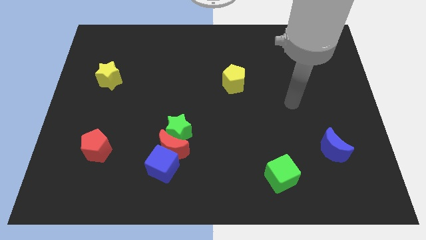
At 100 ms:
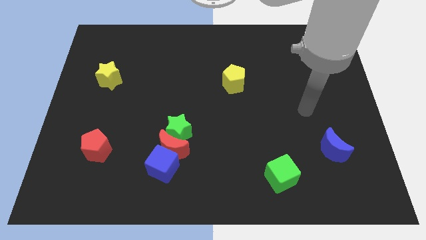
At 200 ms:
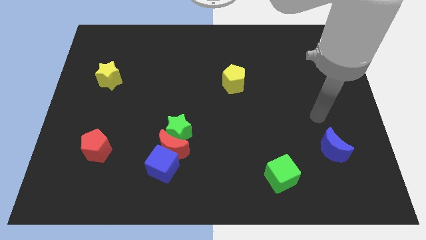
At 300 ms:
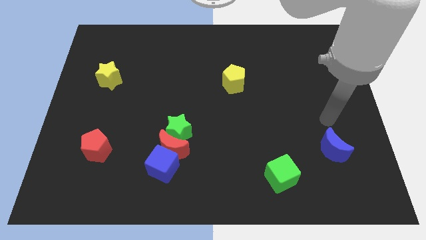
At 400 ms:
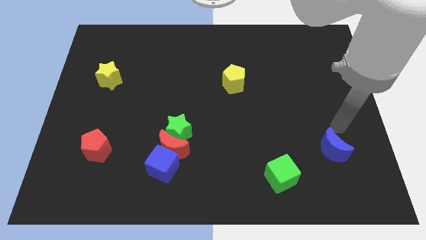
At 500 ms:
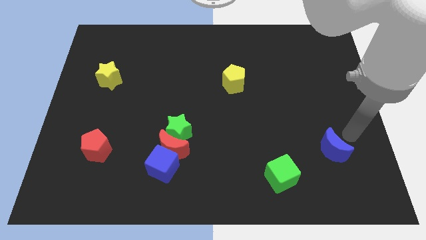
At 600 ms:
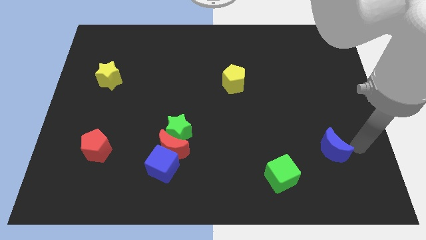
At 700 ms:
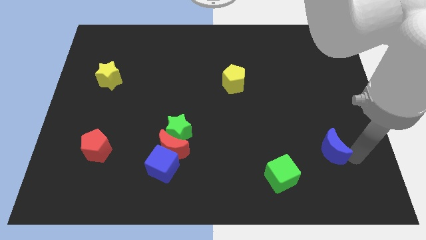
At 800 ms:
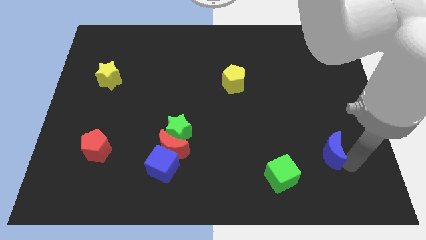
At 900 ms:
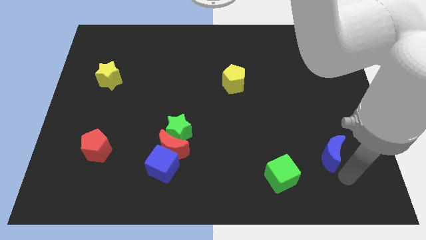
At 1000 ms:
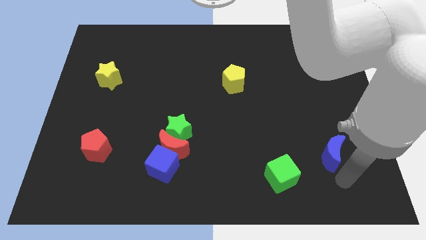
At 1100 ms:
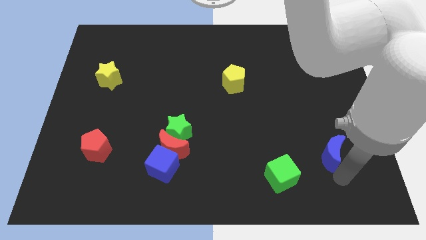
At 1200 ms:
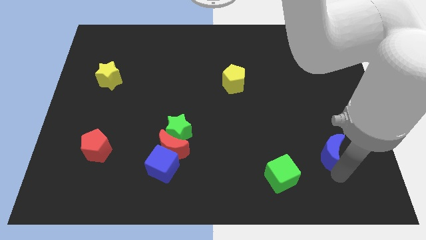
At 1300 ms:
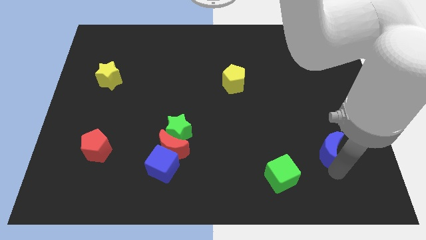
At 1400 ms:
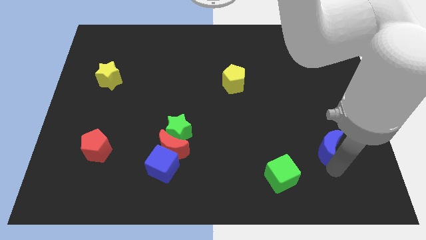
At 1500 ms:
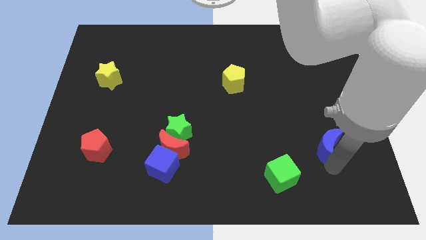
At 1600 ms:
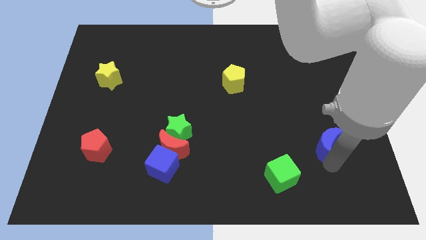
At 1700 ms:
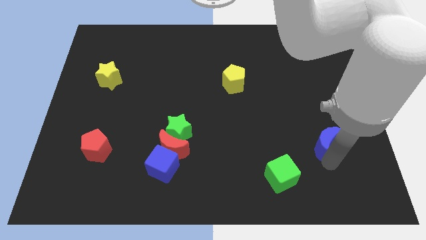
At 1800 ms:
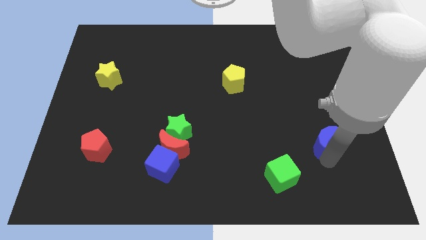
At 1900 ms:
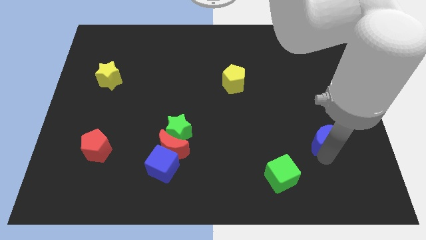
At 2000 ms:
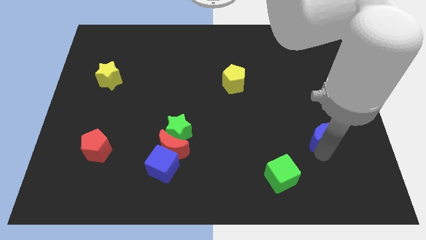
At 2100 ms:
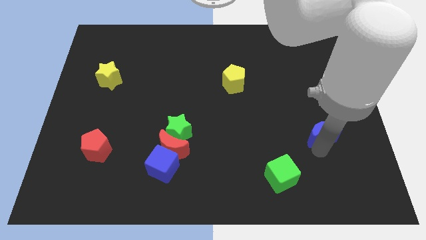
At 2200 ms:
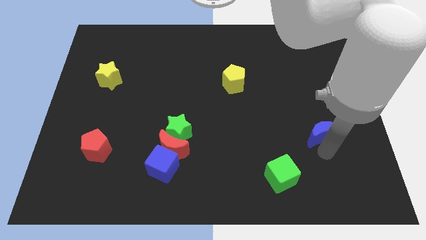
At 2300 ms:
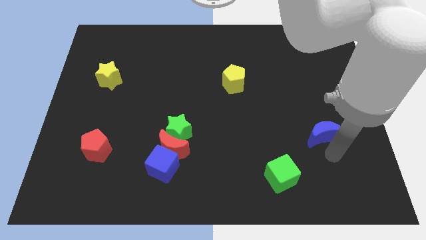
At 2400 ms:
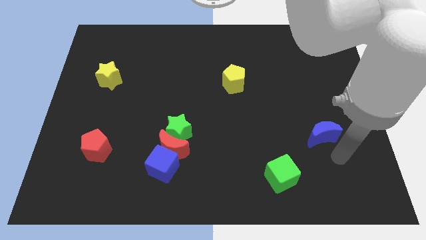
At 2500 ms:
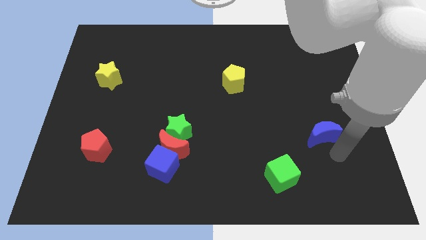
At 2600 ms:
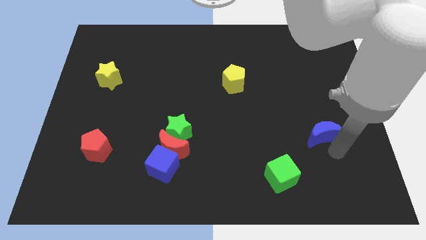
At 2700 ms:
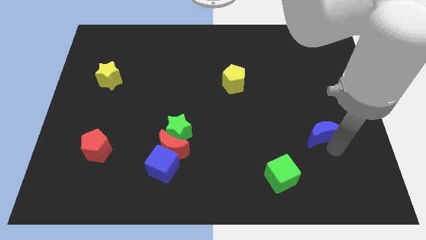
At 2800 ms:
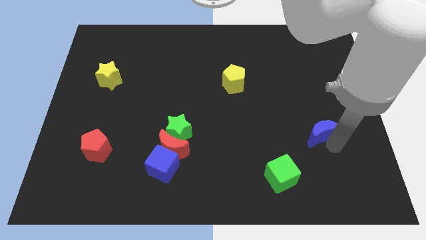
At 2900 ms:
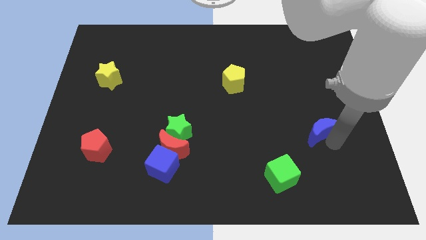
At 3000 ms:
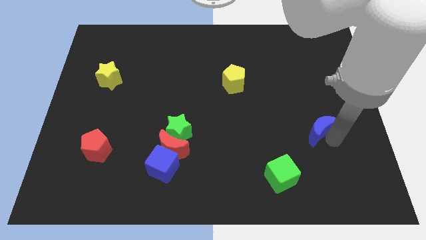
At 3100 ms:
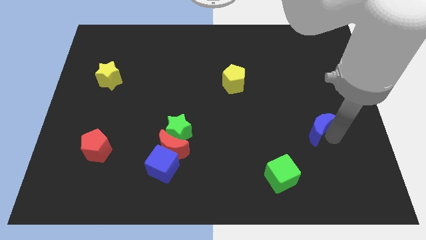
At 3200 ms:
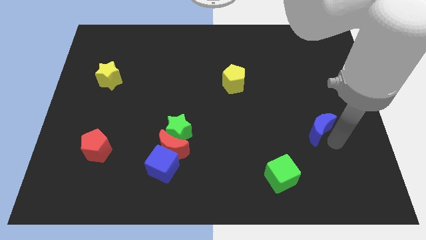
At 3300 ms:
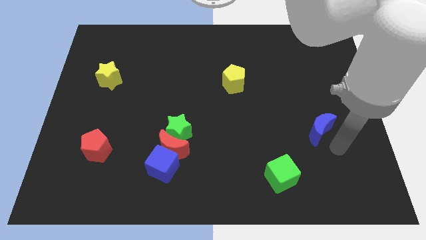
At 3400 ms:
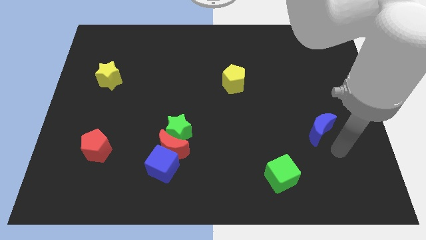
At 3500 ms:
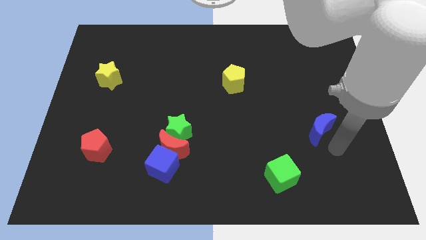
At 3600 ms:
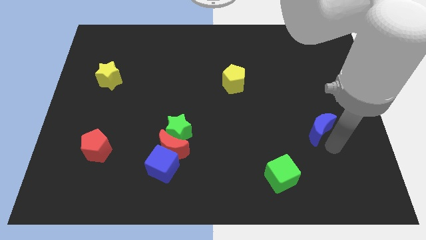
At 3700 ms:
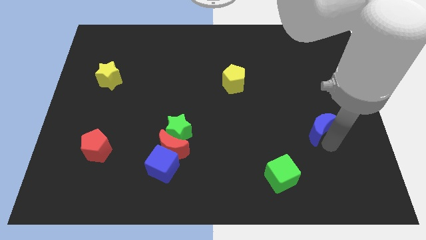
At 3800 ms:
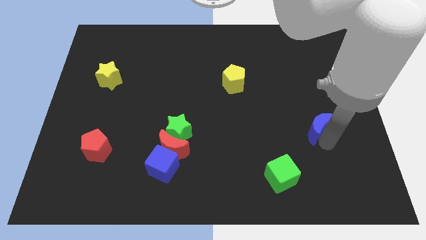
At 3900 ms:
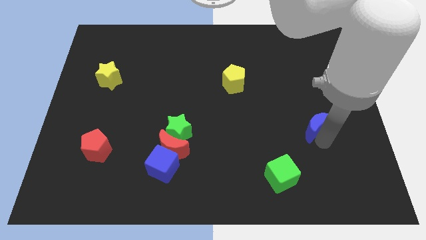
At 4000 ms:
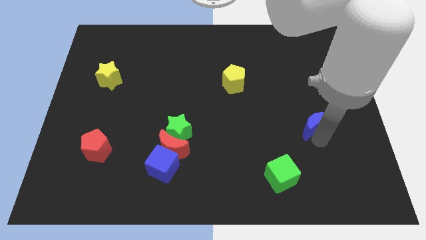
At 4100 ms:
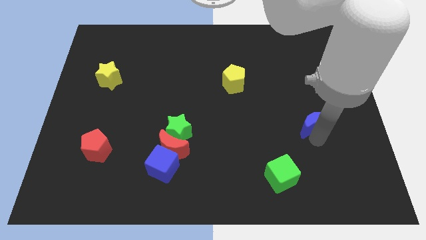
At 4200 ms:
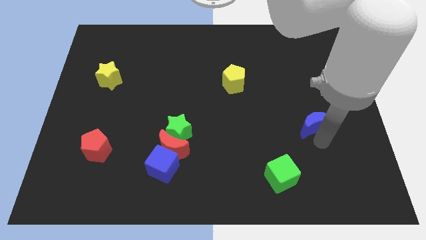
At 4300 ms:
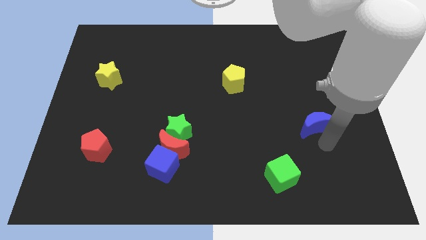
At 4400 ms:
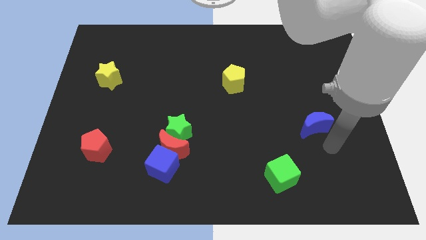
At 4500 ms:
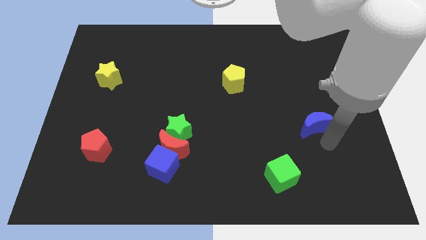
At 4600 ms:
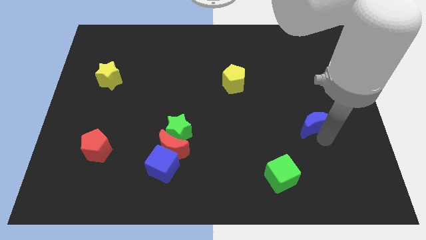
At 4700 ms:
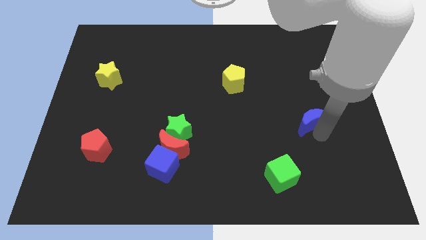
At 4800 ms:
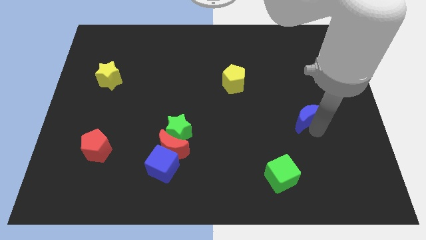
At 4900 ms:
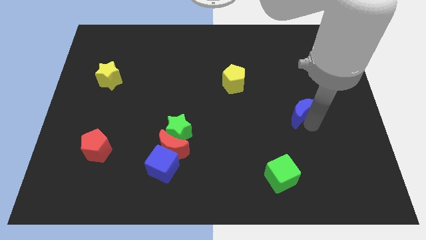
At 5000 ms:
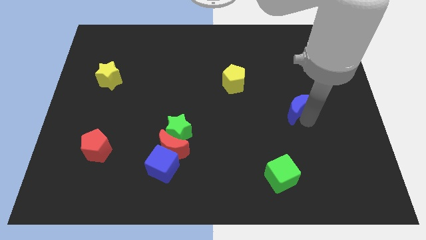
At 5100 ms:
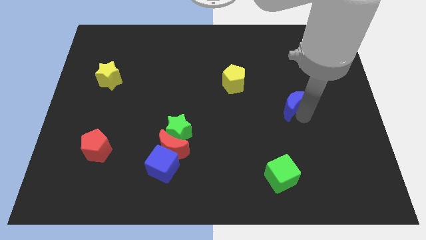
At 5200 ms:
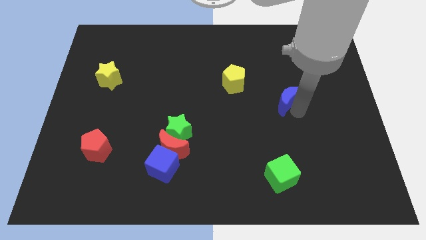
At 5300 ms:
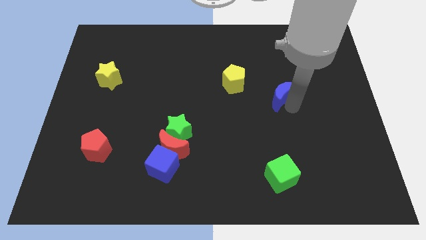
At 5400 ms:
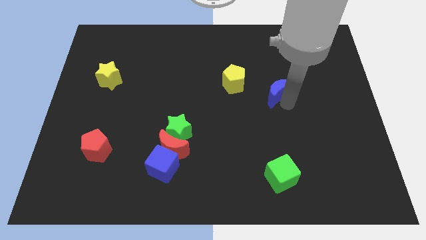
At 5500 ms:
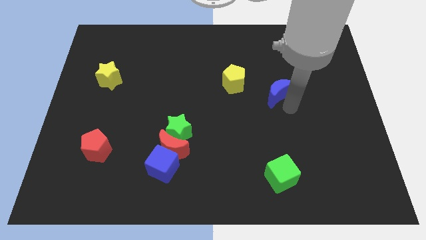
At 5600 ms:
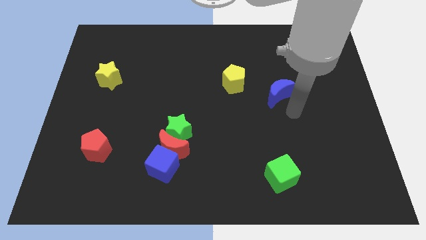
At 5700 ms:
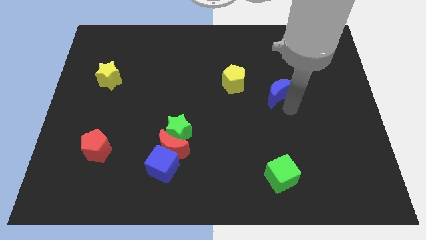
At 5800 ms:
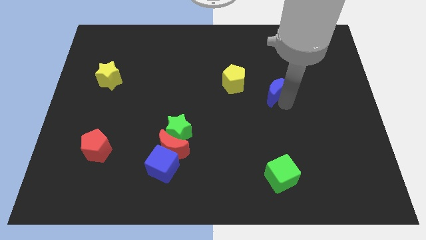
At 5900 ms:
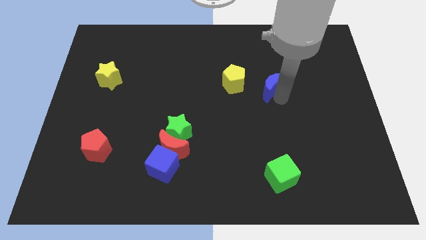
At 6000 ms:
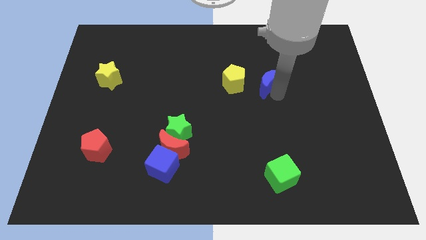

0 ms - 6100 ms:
push the blue moon up and to the left

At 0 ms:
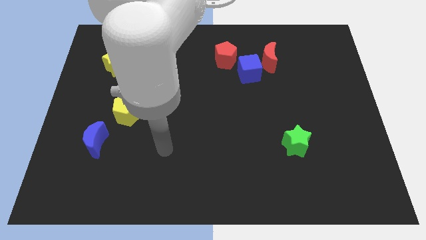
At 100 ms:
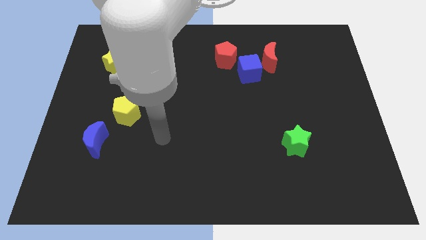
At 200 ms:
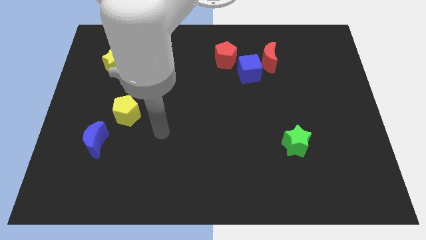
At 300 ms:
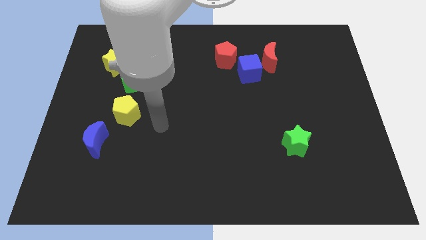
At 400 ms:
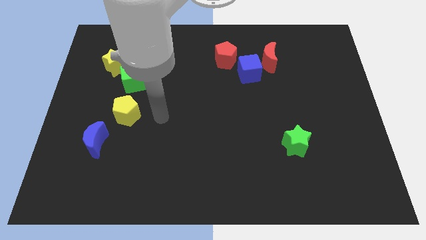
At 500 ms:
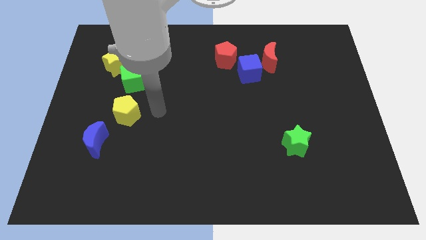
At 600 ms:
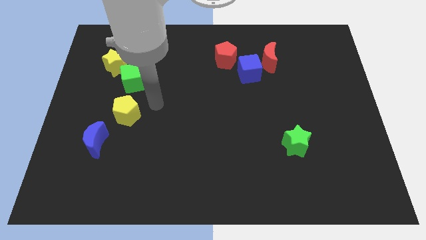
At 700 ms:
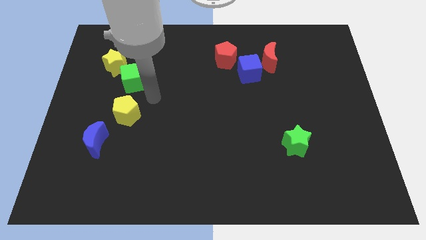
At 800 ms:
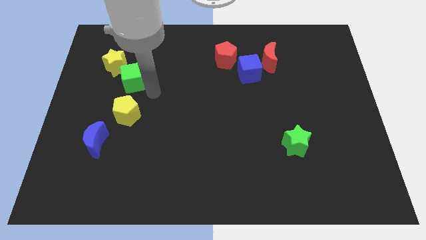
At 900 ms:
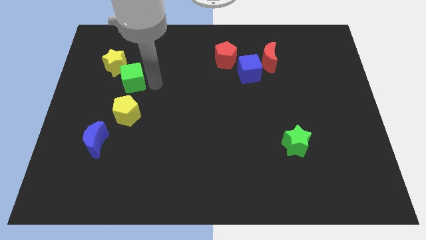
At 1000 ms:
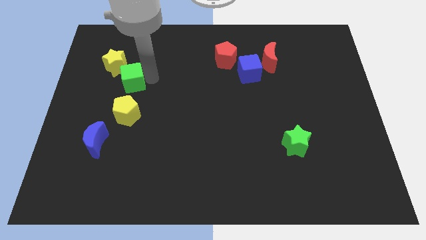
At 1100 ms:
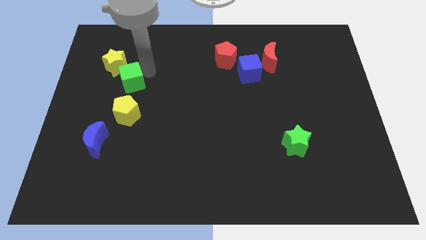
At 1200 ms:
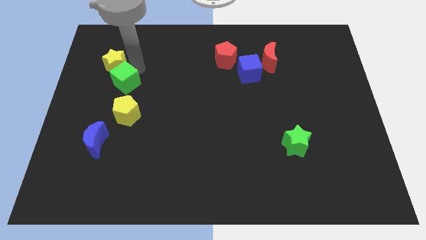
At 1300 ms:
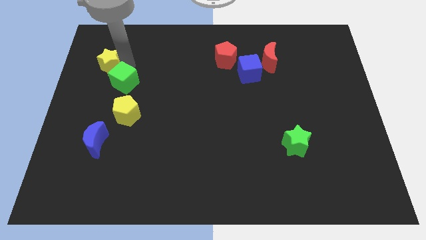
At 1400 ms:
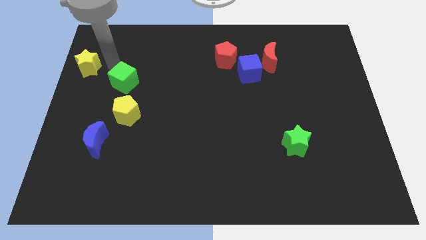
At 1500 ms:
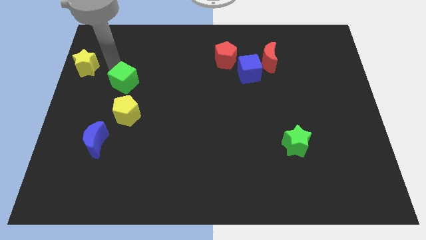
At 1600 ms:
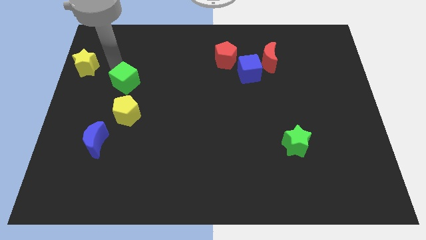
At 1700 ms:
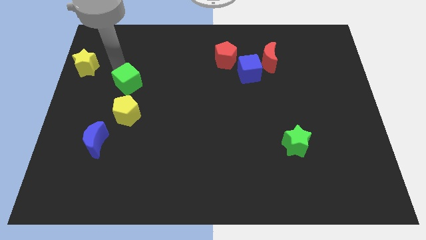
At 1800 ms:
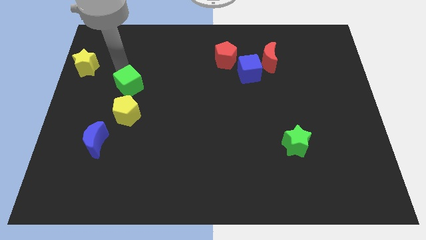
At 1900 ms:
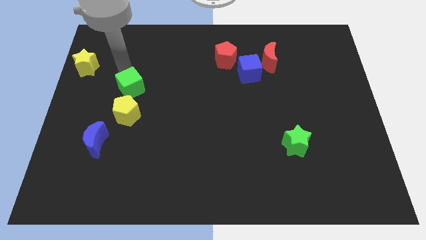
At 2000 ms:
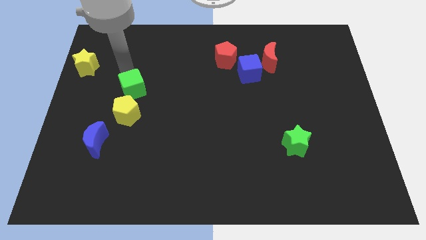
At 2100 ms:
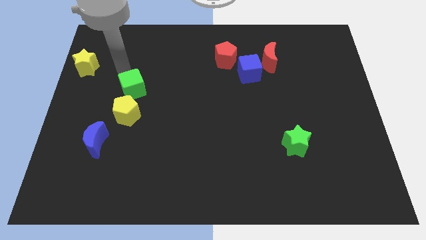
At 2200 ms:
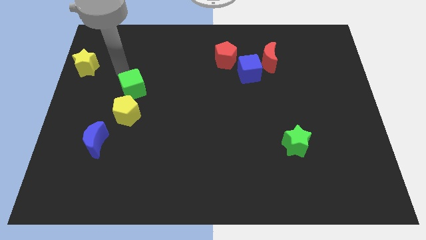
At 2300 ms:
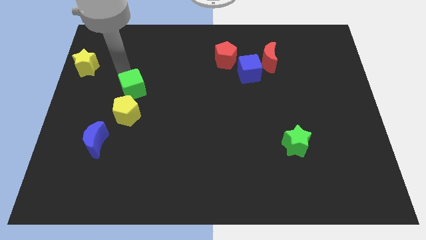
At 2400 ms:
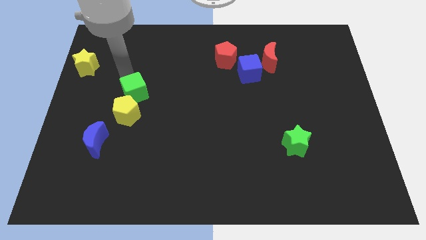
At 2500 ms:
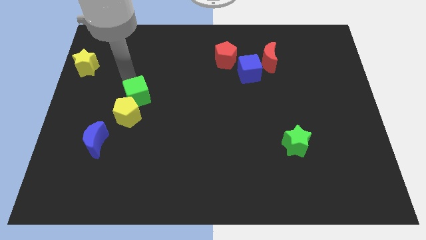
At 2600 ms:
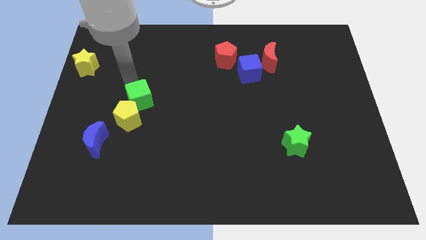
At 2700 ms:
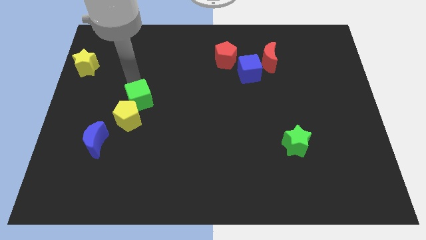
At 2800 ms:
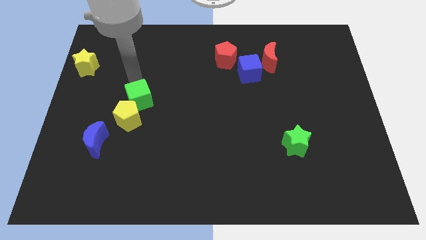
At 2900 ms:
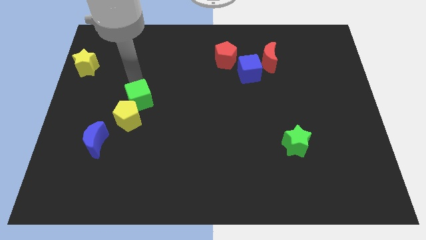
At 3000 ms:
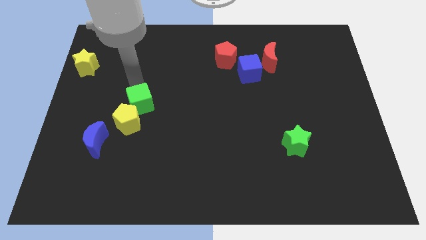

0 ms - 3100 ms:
slightly push the green cube downwards
